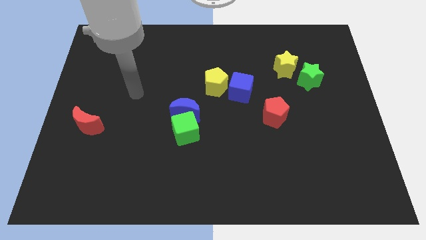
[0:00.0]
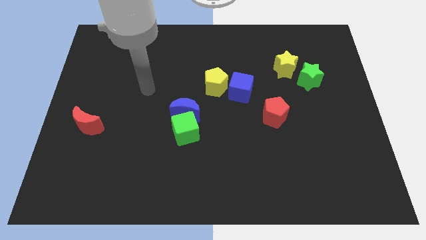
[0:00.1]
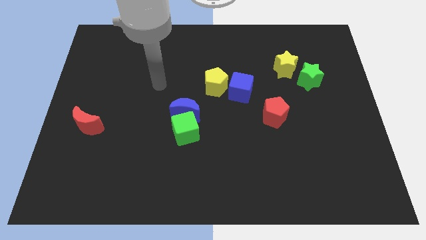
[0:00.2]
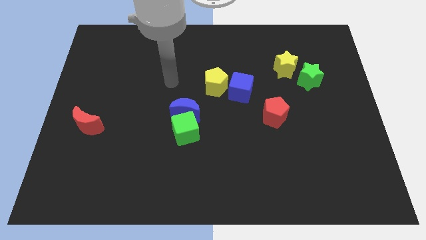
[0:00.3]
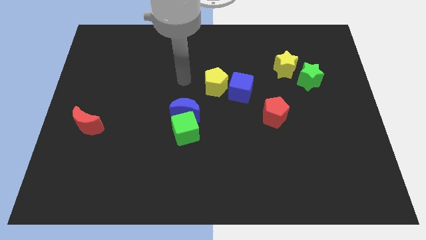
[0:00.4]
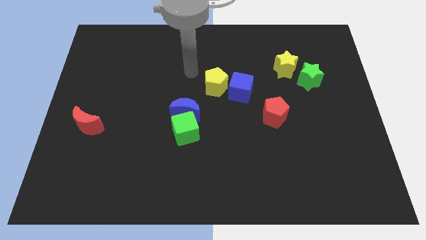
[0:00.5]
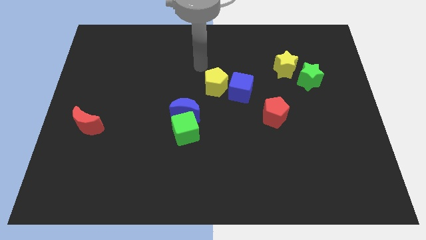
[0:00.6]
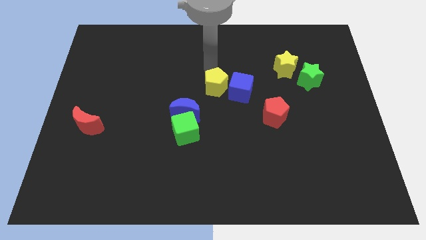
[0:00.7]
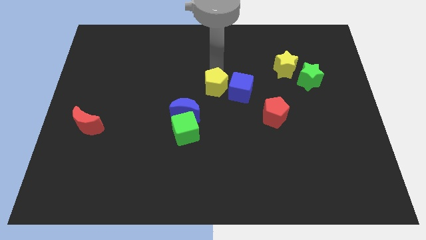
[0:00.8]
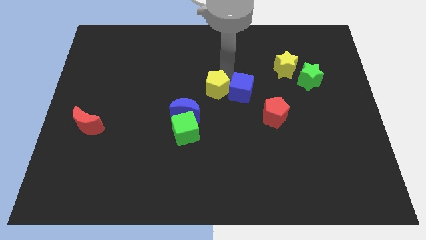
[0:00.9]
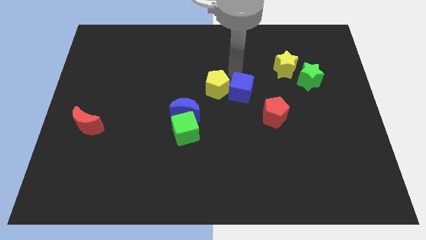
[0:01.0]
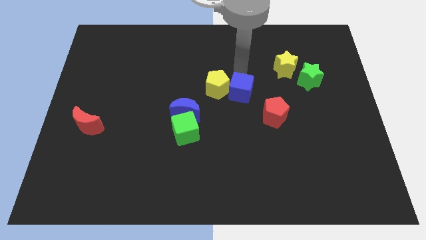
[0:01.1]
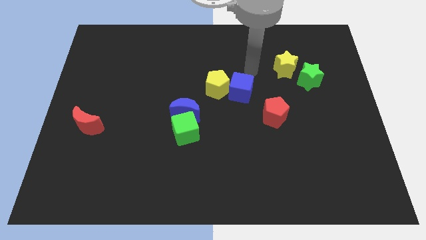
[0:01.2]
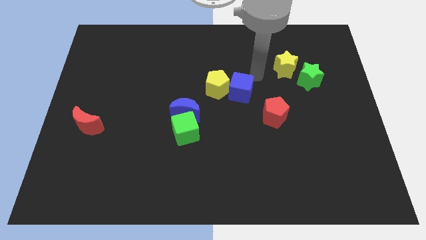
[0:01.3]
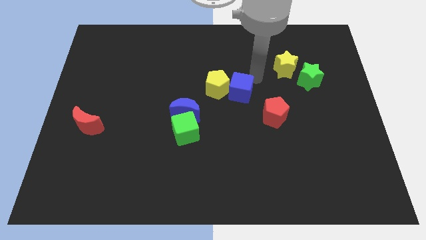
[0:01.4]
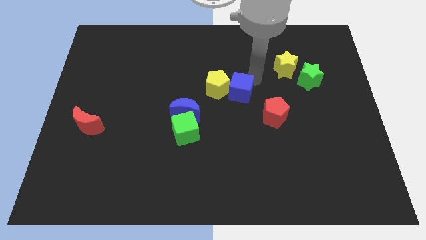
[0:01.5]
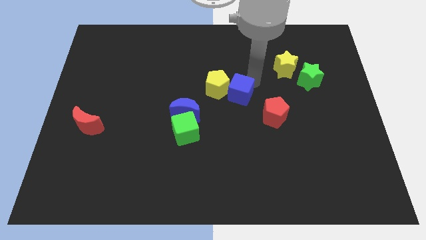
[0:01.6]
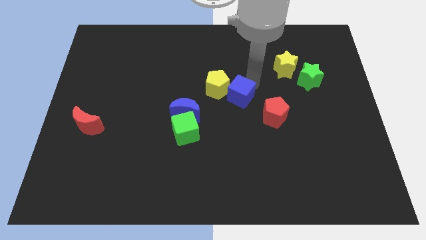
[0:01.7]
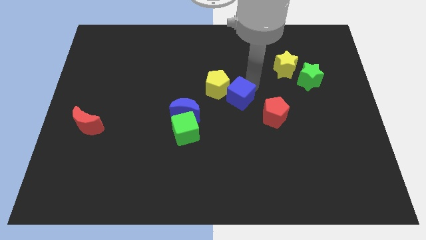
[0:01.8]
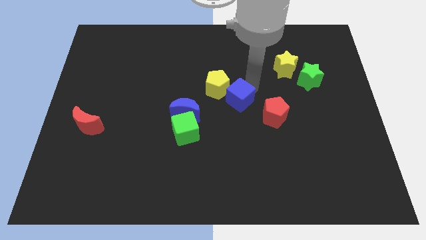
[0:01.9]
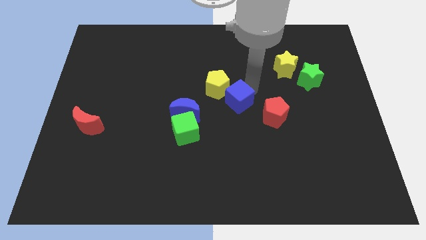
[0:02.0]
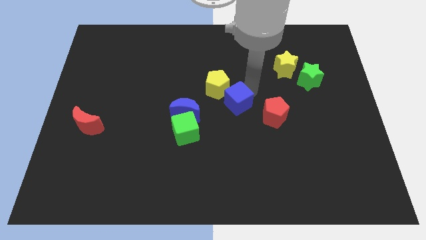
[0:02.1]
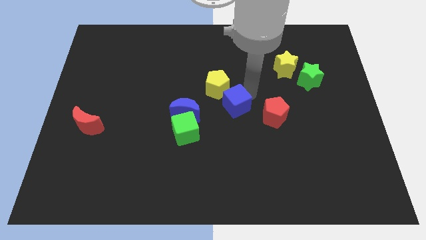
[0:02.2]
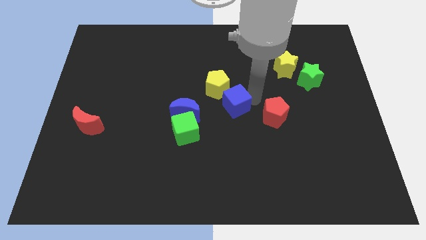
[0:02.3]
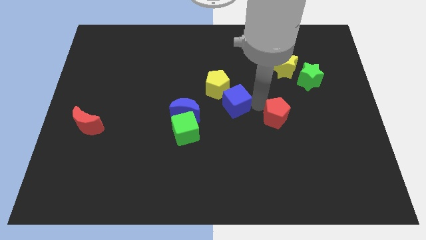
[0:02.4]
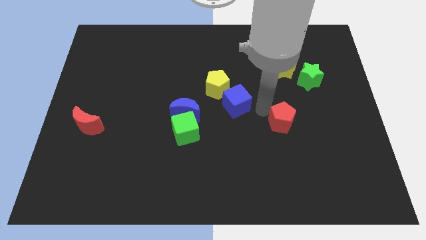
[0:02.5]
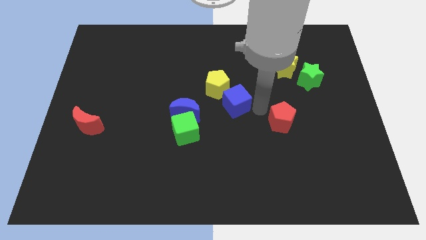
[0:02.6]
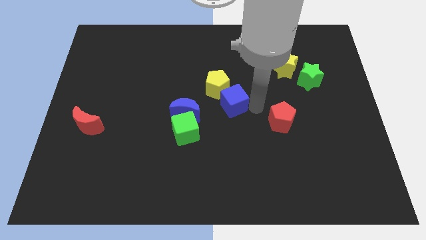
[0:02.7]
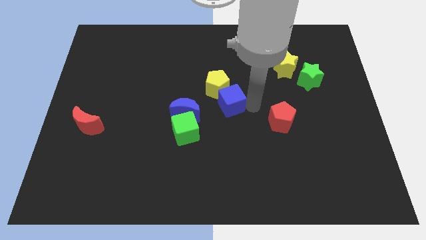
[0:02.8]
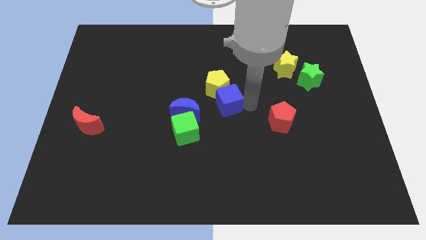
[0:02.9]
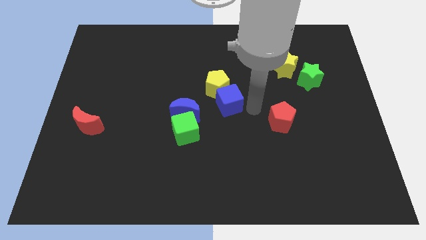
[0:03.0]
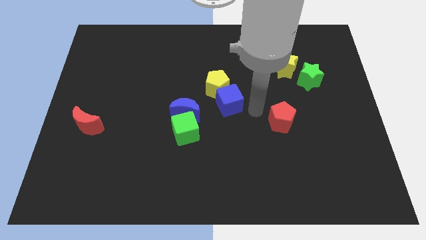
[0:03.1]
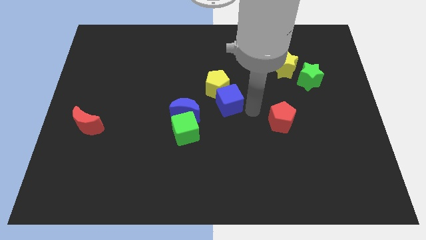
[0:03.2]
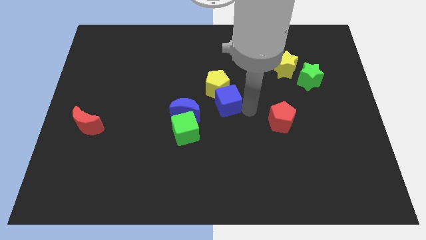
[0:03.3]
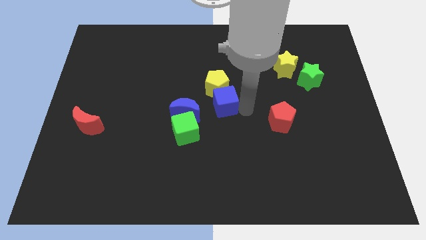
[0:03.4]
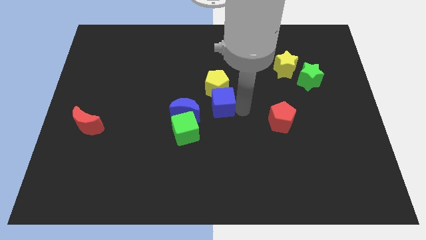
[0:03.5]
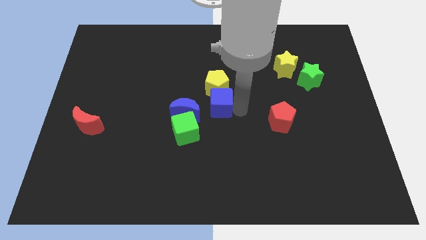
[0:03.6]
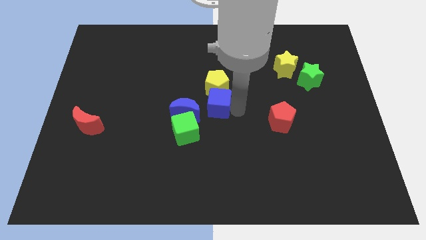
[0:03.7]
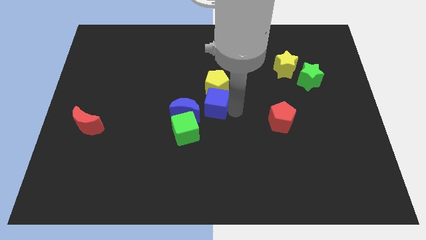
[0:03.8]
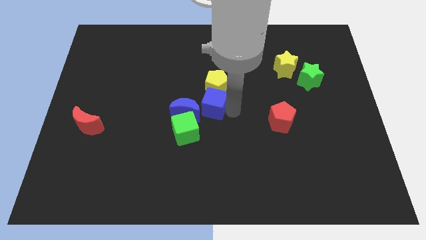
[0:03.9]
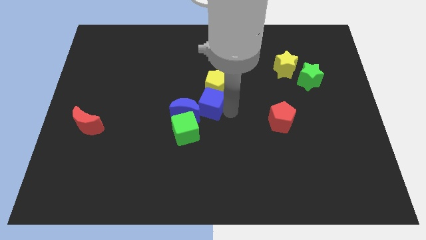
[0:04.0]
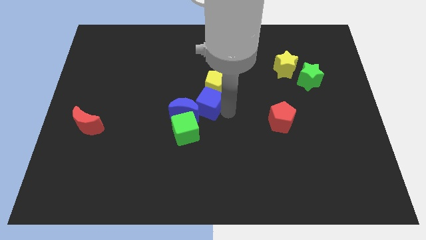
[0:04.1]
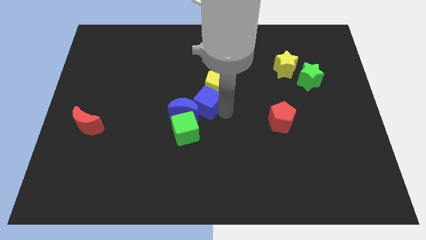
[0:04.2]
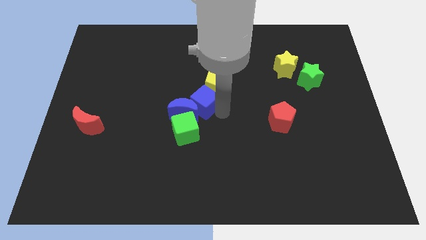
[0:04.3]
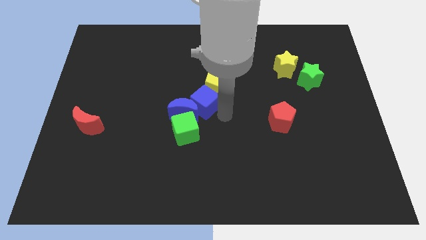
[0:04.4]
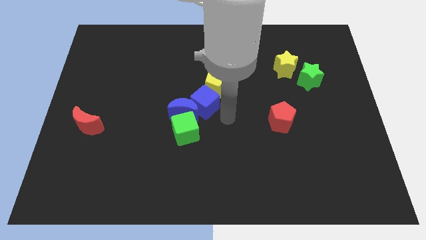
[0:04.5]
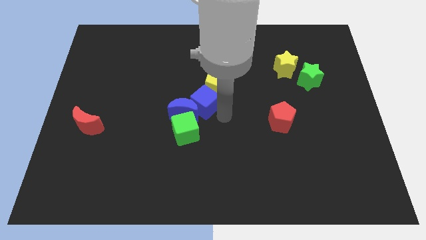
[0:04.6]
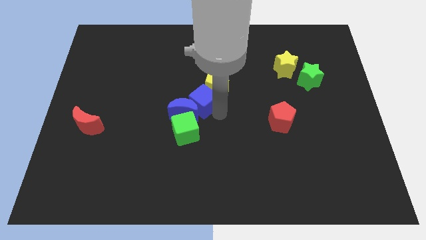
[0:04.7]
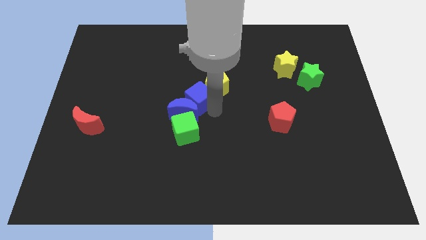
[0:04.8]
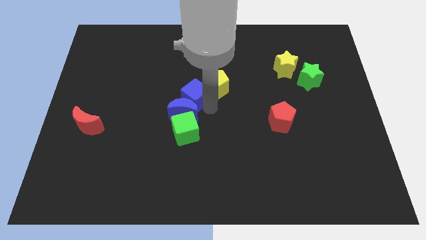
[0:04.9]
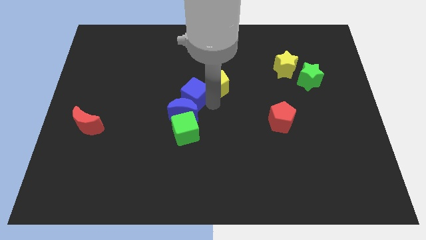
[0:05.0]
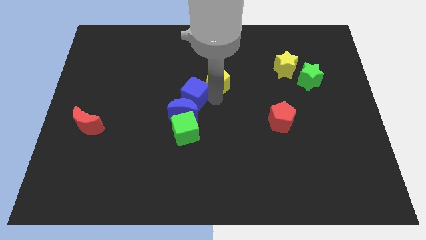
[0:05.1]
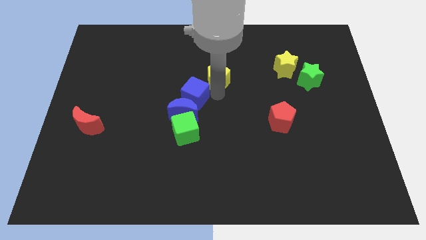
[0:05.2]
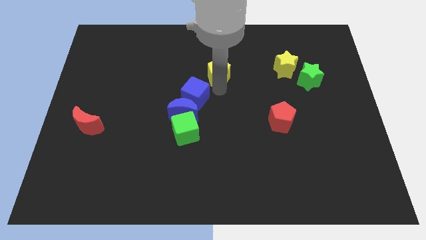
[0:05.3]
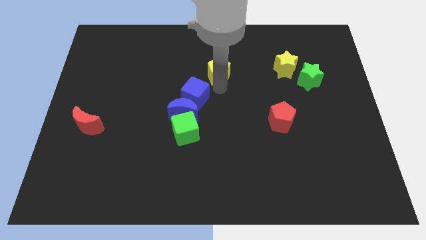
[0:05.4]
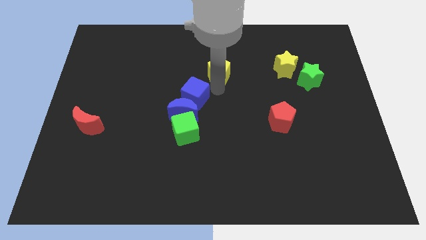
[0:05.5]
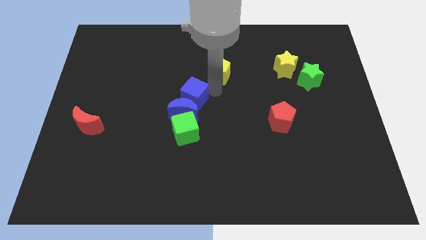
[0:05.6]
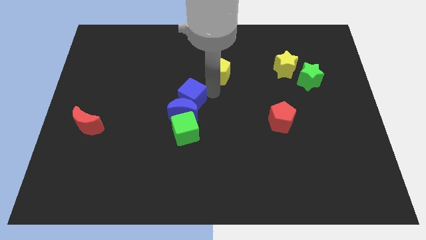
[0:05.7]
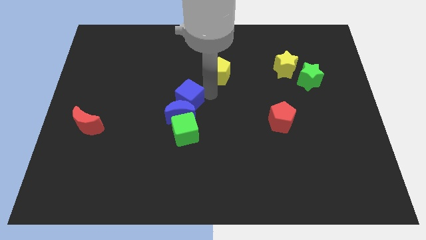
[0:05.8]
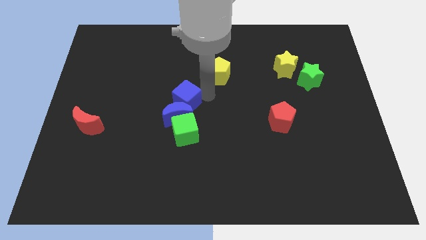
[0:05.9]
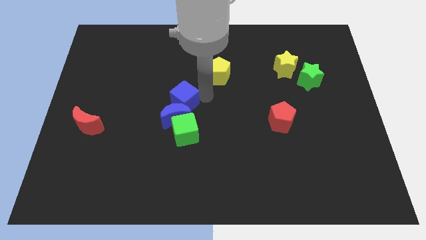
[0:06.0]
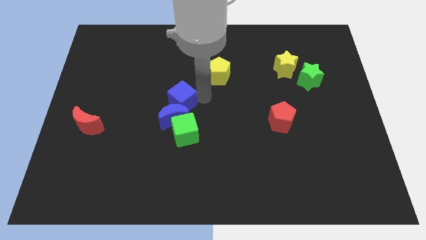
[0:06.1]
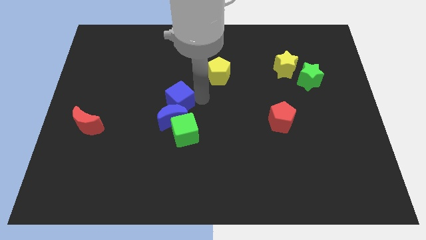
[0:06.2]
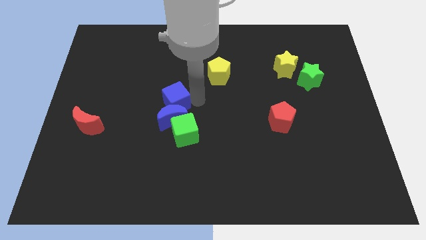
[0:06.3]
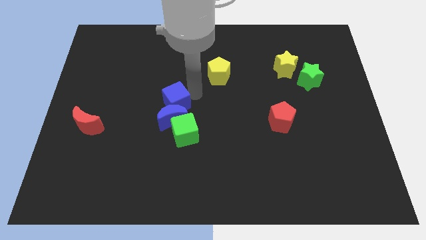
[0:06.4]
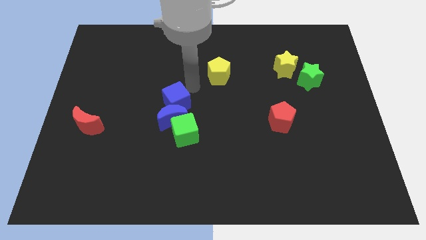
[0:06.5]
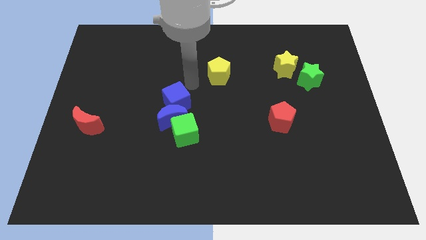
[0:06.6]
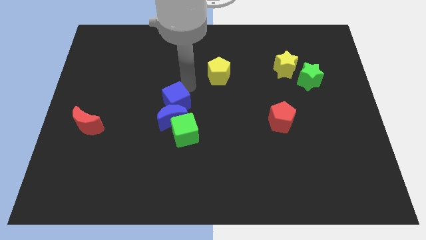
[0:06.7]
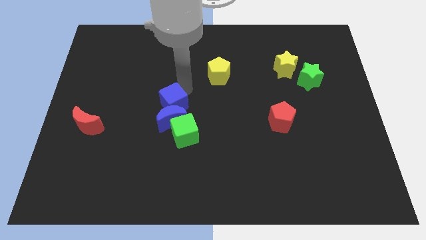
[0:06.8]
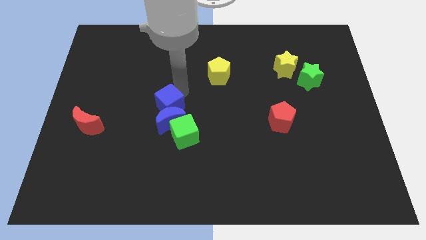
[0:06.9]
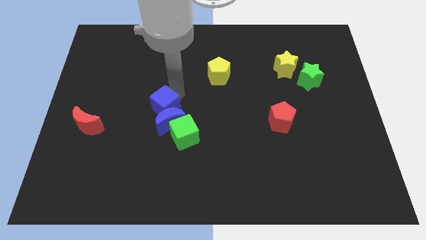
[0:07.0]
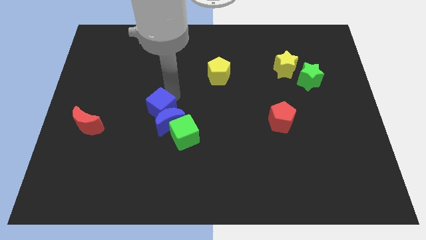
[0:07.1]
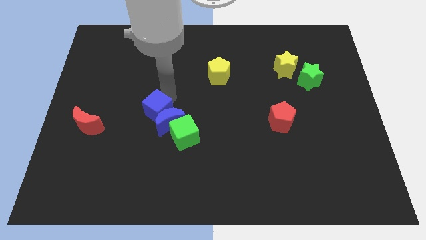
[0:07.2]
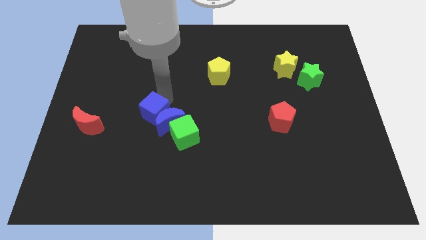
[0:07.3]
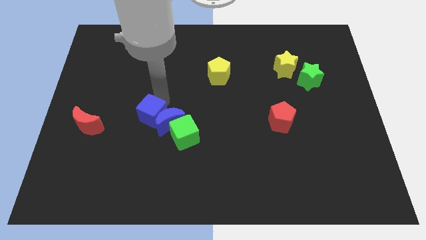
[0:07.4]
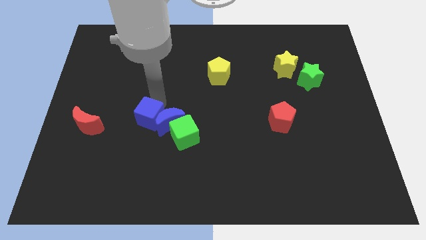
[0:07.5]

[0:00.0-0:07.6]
push the blue cube to the bottom left side of the blue moon

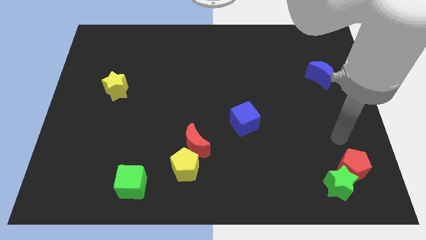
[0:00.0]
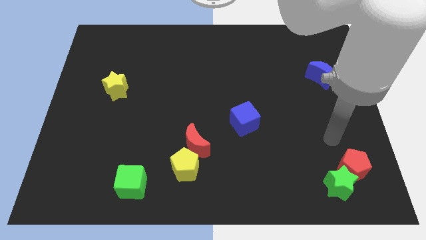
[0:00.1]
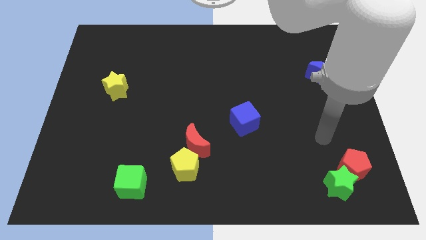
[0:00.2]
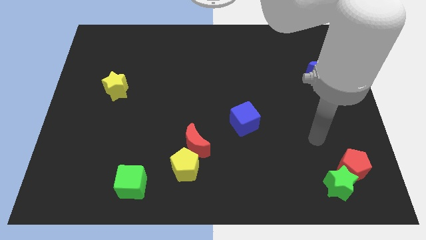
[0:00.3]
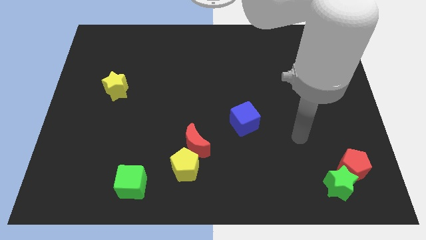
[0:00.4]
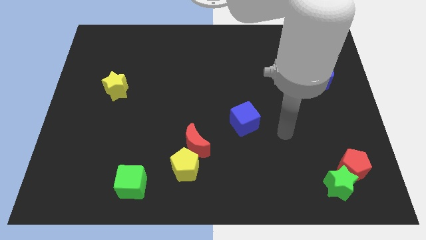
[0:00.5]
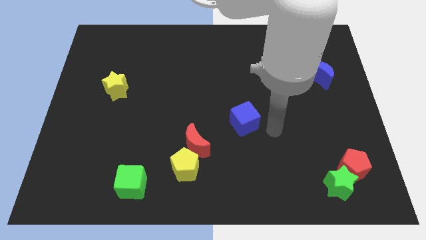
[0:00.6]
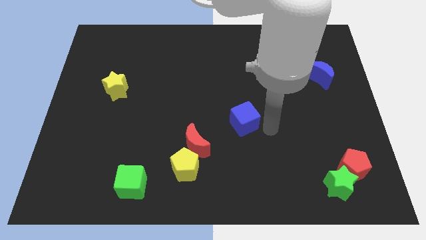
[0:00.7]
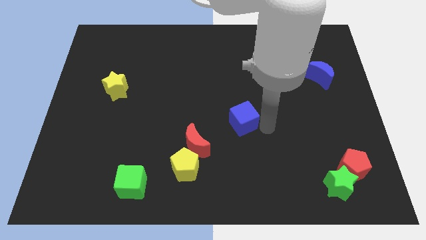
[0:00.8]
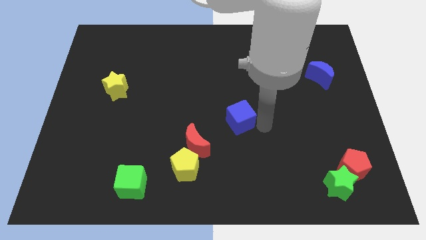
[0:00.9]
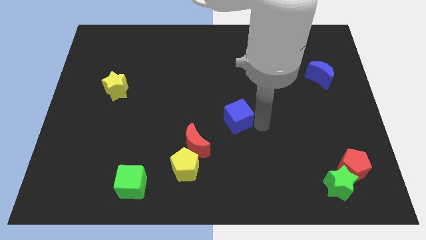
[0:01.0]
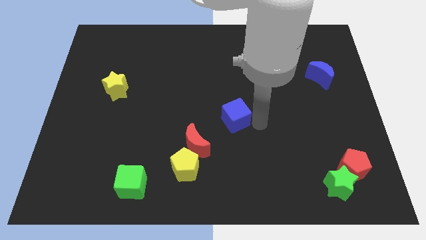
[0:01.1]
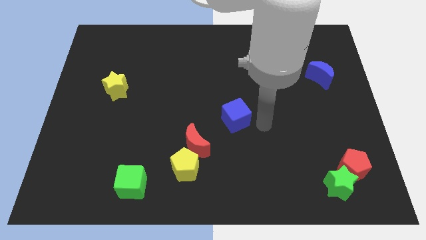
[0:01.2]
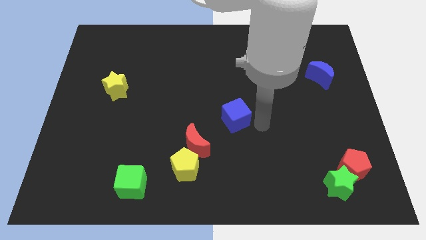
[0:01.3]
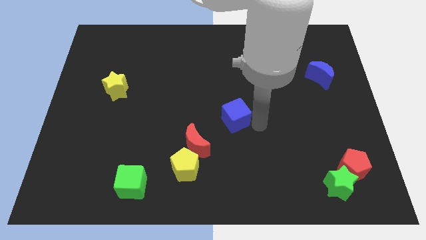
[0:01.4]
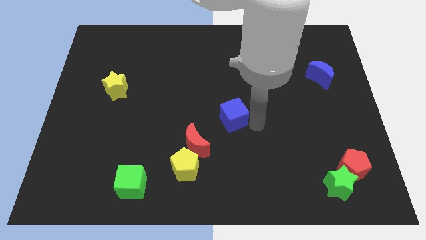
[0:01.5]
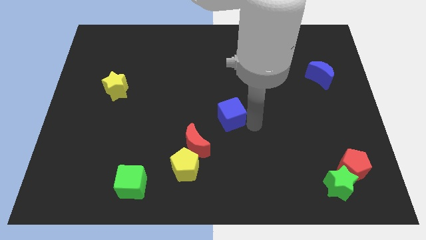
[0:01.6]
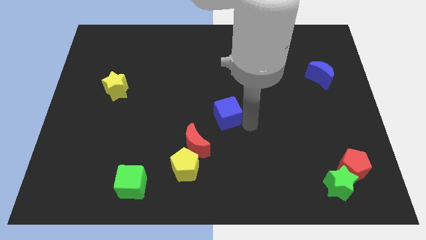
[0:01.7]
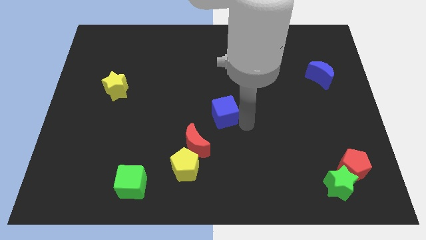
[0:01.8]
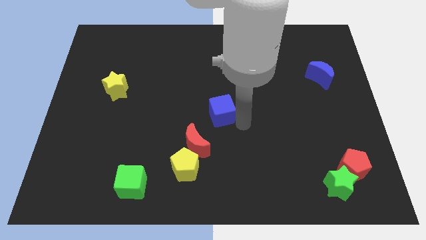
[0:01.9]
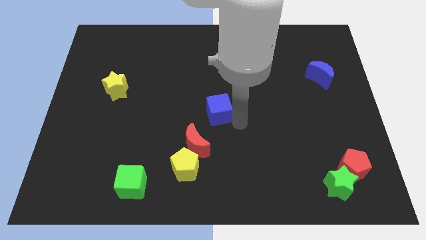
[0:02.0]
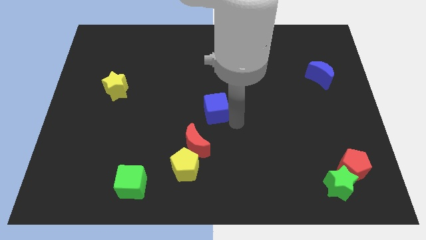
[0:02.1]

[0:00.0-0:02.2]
slide the blue cube to the top of the red moon
